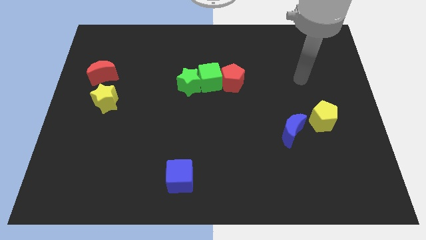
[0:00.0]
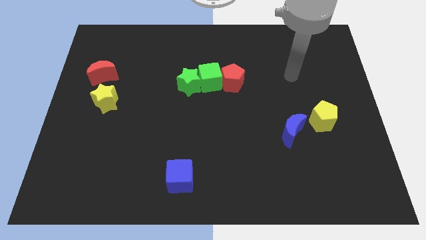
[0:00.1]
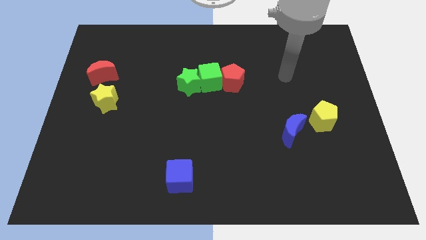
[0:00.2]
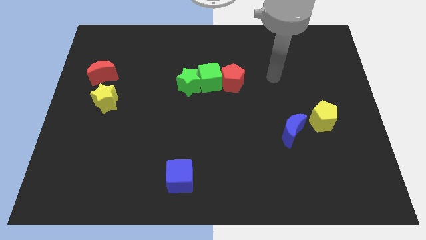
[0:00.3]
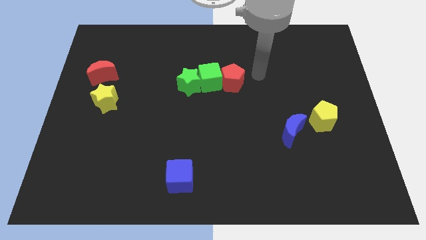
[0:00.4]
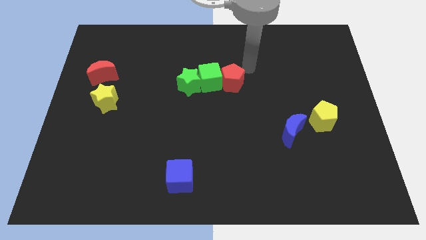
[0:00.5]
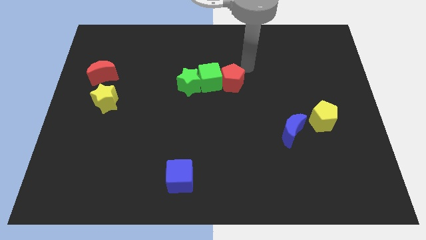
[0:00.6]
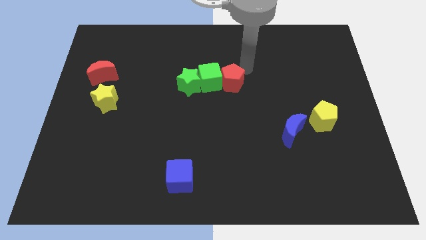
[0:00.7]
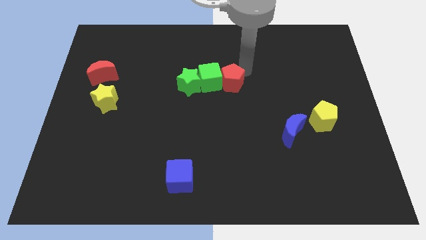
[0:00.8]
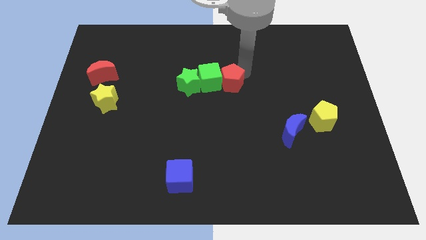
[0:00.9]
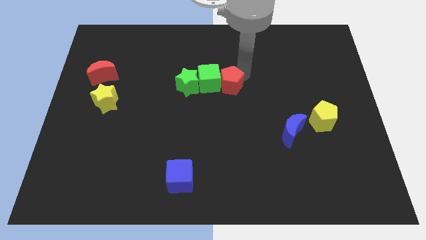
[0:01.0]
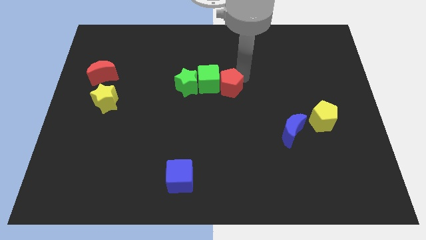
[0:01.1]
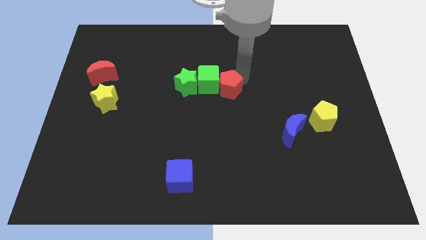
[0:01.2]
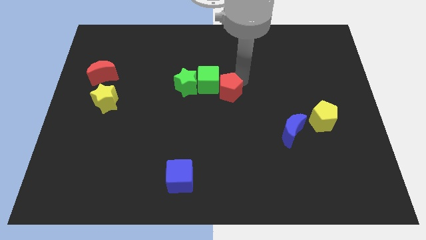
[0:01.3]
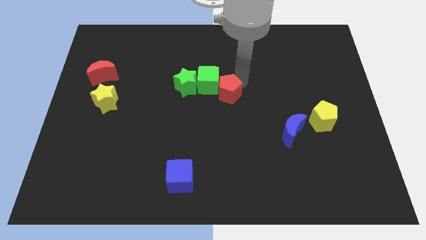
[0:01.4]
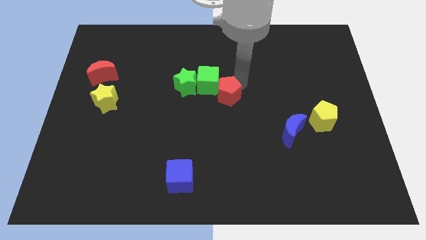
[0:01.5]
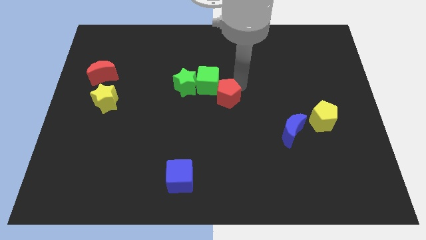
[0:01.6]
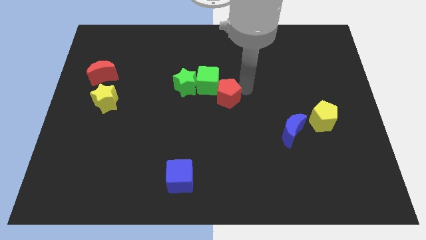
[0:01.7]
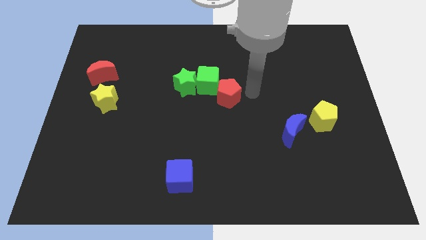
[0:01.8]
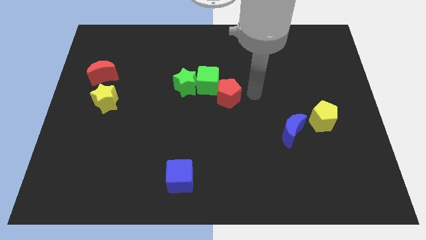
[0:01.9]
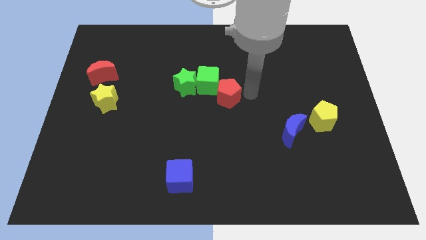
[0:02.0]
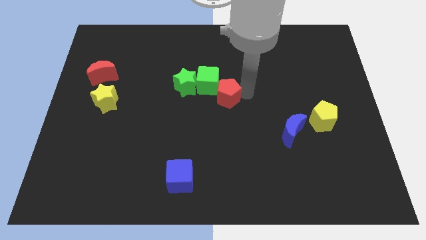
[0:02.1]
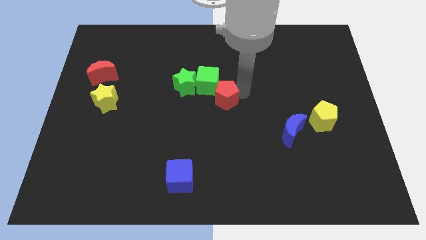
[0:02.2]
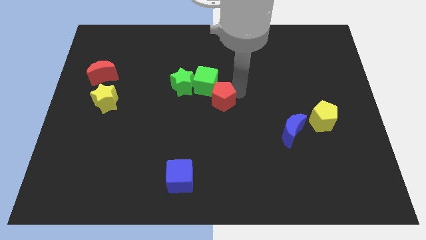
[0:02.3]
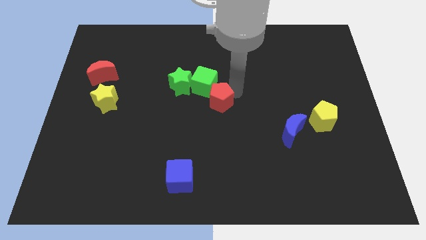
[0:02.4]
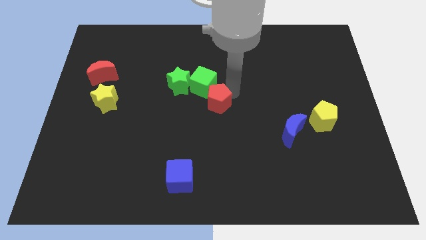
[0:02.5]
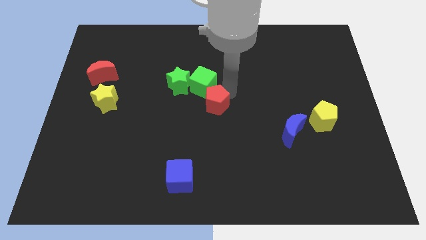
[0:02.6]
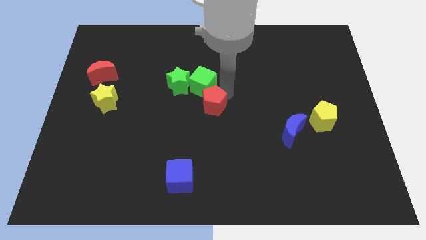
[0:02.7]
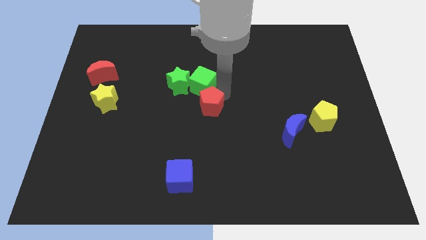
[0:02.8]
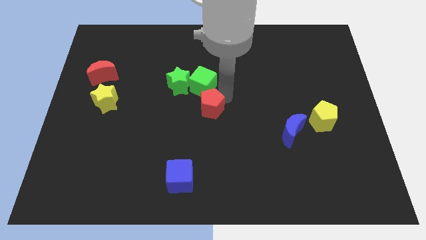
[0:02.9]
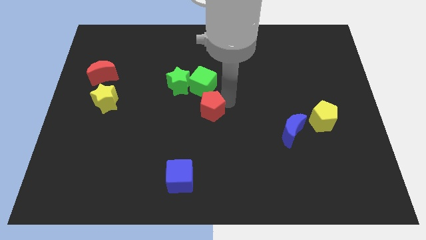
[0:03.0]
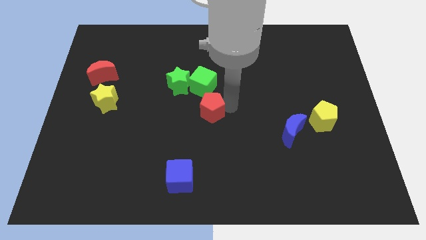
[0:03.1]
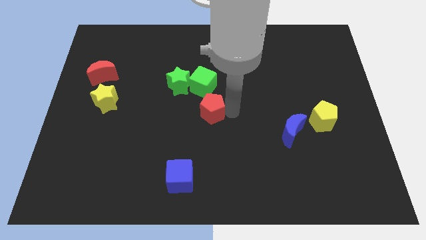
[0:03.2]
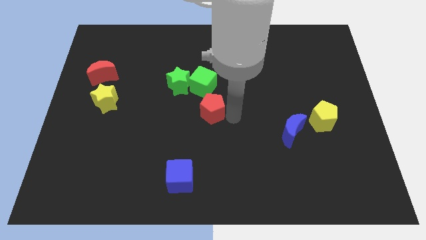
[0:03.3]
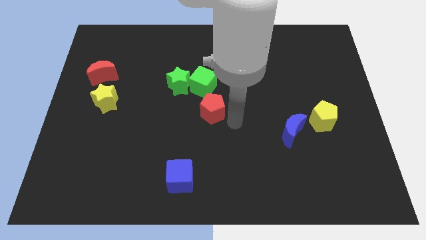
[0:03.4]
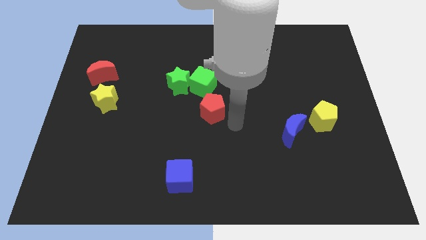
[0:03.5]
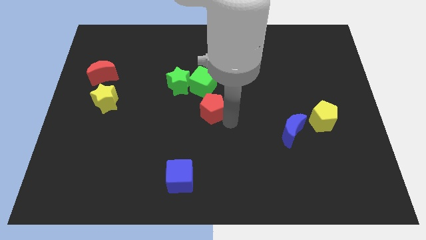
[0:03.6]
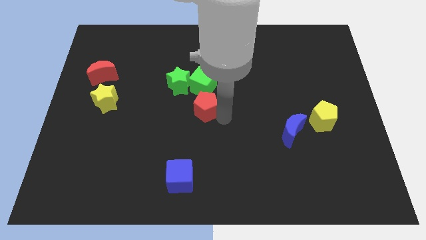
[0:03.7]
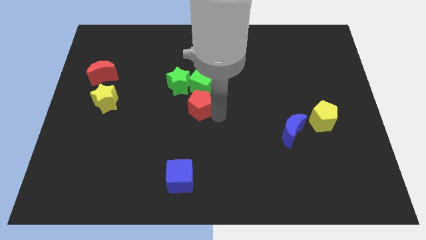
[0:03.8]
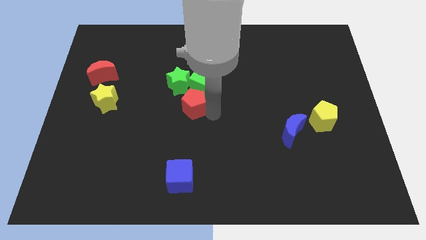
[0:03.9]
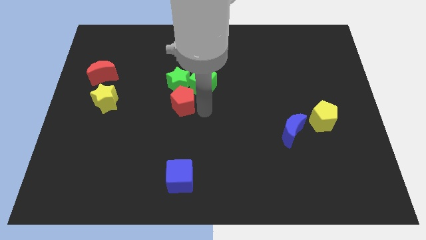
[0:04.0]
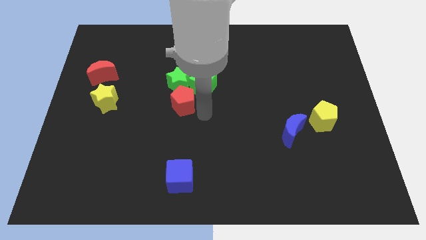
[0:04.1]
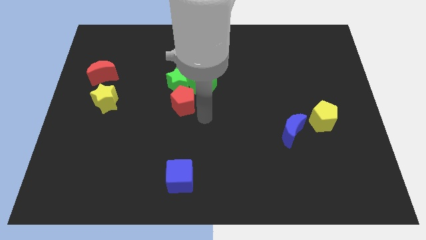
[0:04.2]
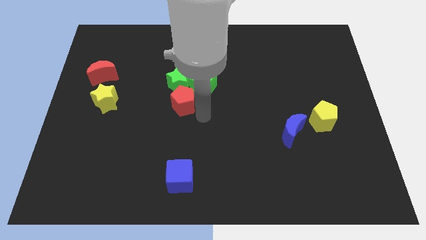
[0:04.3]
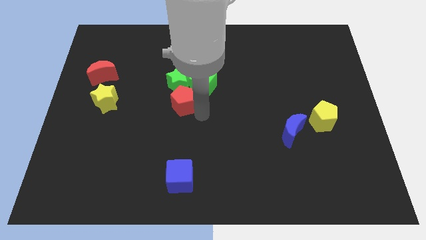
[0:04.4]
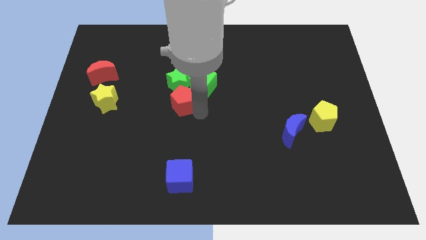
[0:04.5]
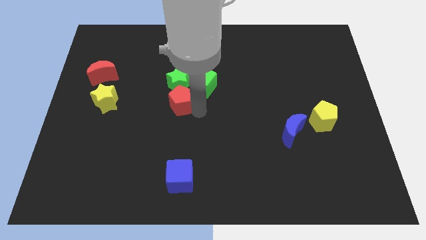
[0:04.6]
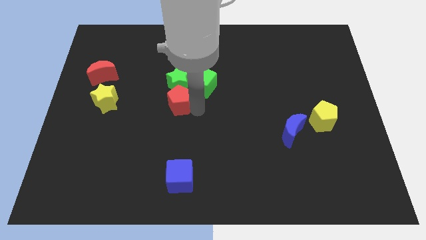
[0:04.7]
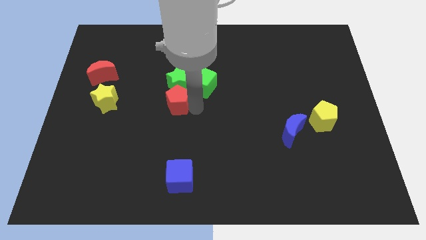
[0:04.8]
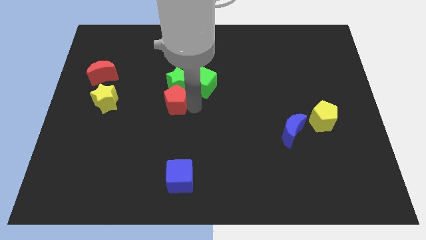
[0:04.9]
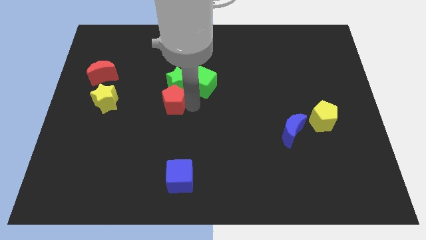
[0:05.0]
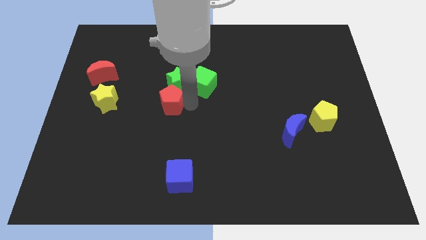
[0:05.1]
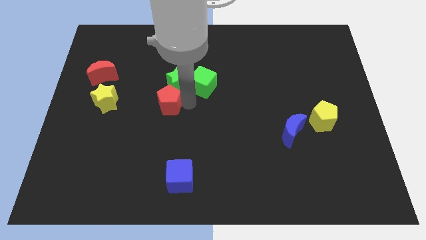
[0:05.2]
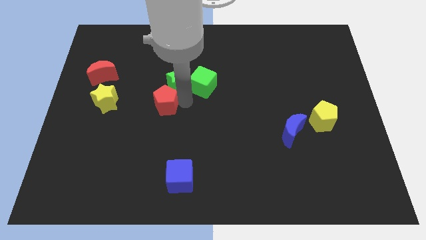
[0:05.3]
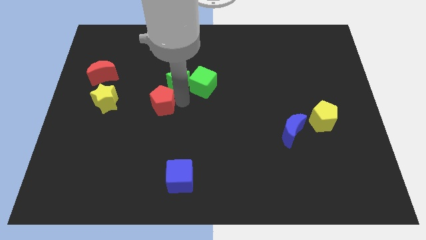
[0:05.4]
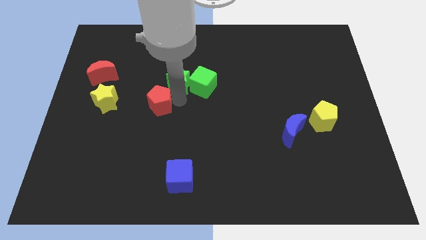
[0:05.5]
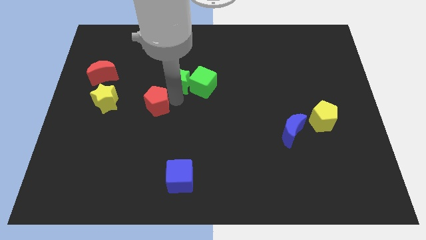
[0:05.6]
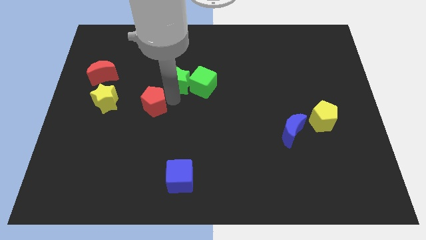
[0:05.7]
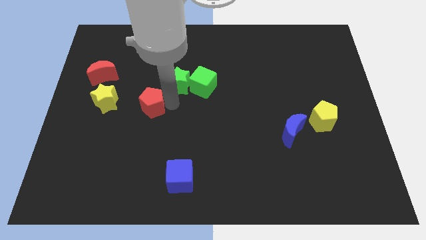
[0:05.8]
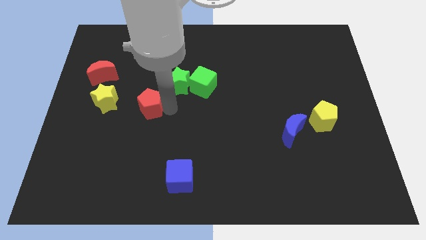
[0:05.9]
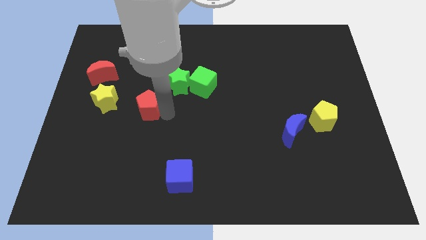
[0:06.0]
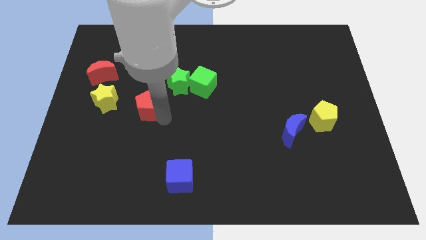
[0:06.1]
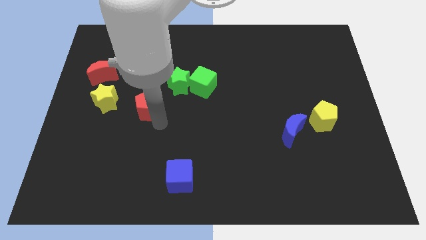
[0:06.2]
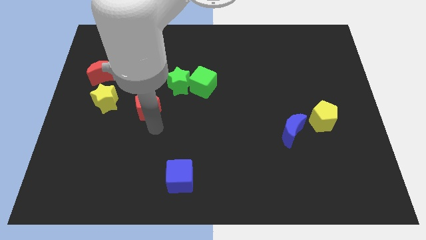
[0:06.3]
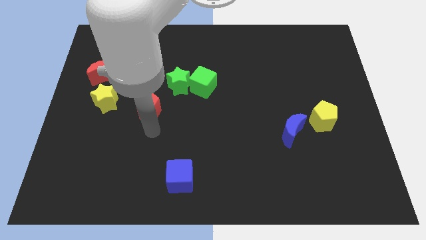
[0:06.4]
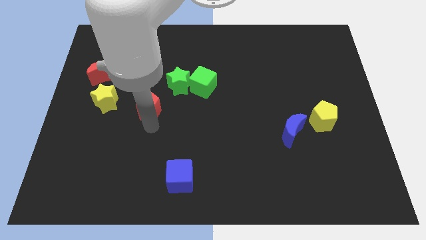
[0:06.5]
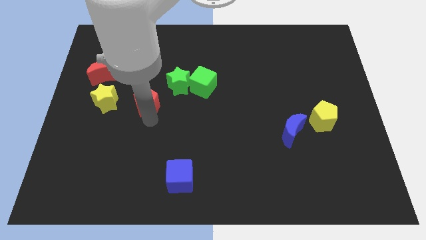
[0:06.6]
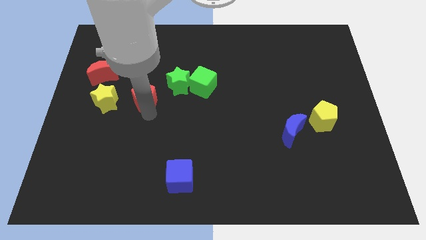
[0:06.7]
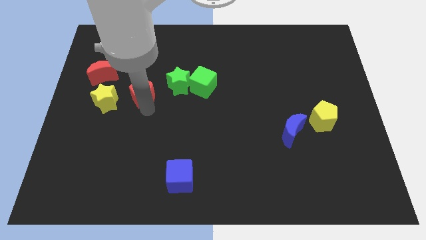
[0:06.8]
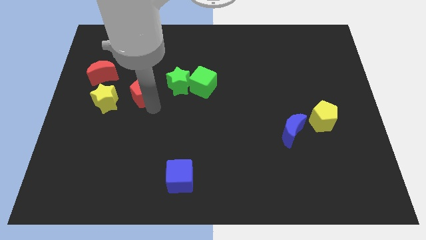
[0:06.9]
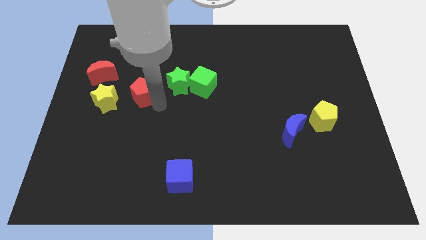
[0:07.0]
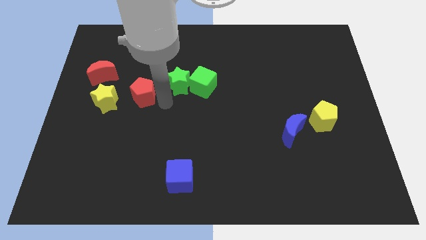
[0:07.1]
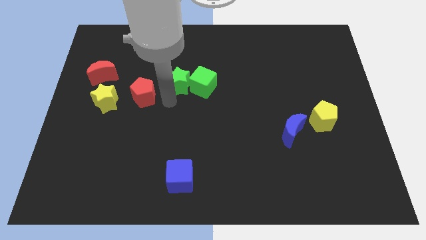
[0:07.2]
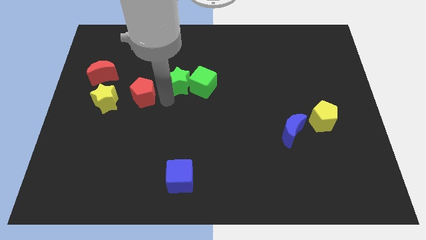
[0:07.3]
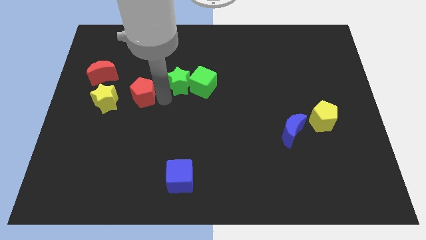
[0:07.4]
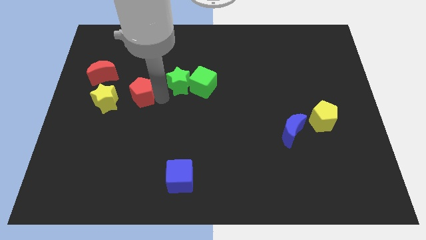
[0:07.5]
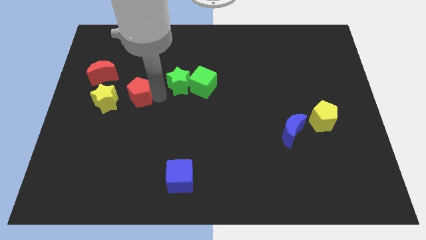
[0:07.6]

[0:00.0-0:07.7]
slide the red pentagon to the bottom right of the red moon
